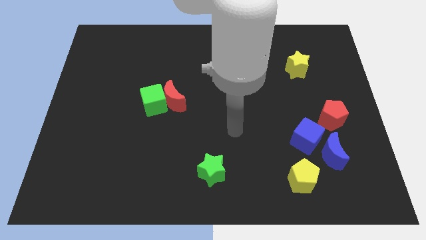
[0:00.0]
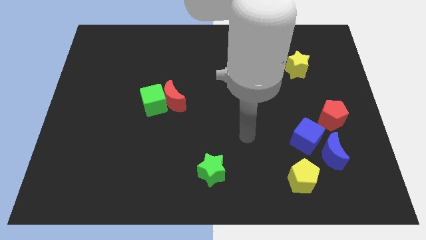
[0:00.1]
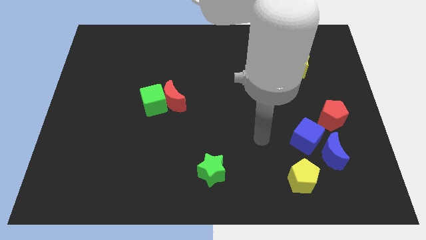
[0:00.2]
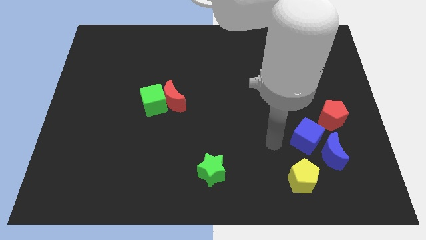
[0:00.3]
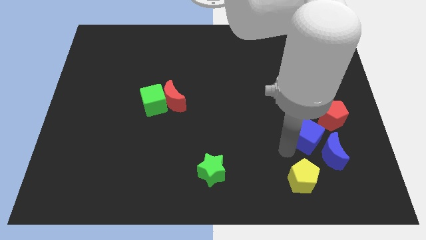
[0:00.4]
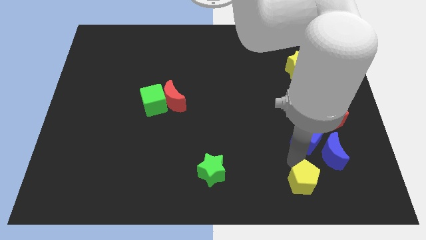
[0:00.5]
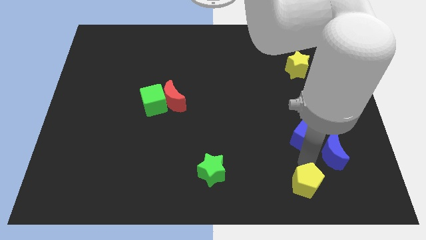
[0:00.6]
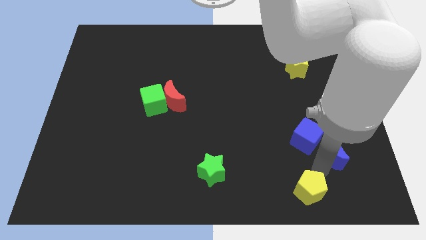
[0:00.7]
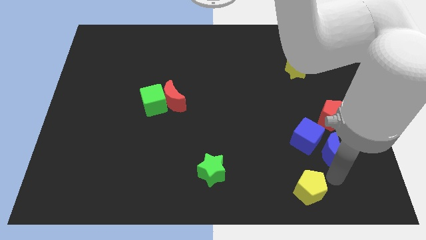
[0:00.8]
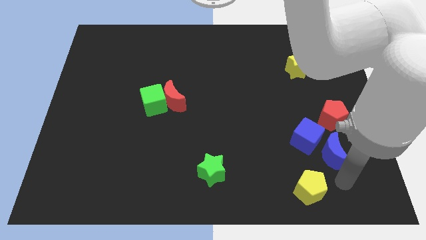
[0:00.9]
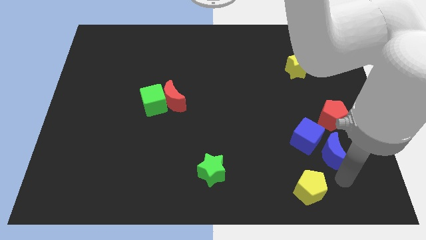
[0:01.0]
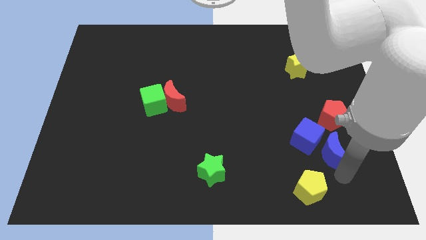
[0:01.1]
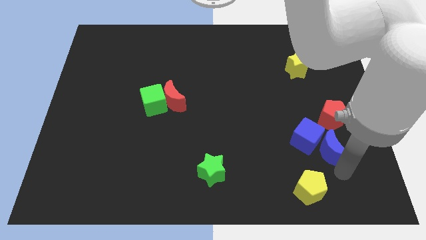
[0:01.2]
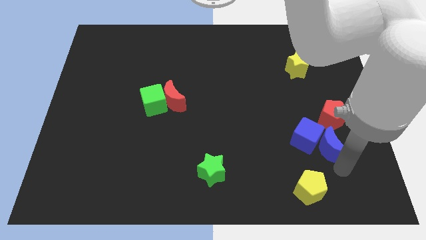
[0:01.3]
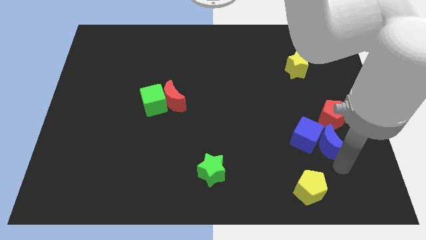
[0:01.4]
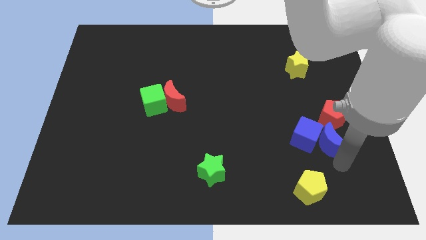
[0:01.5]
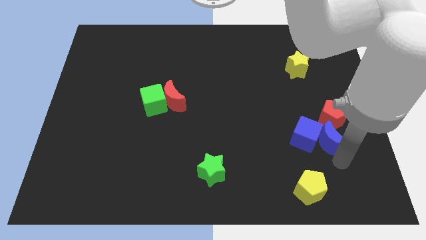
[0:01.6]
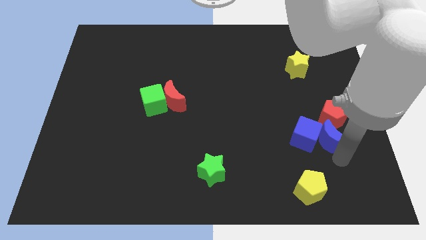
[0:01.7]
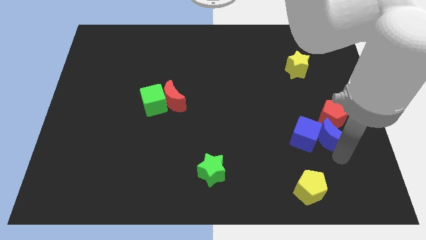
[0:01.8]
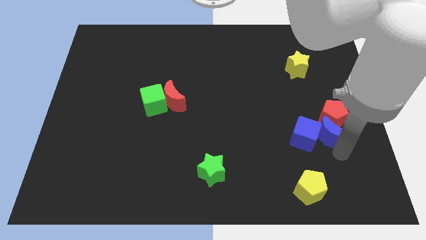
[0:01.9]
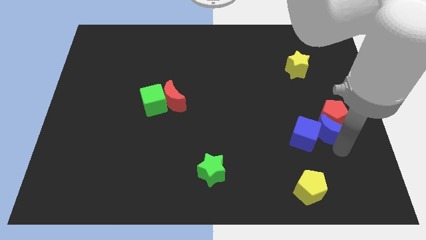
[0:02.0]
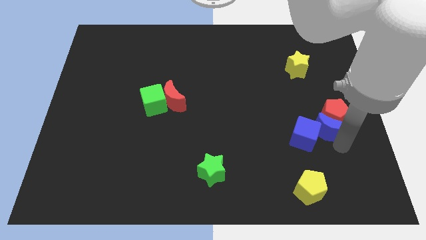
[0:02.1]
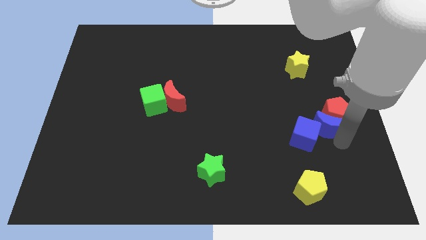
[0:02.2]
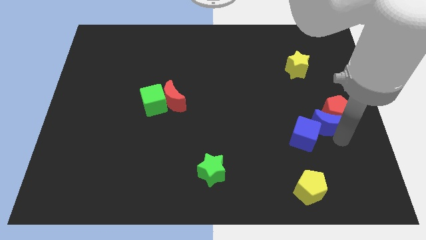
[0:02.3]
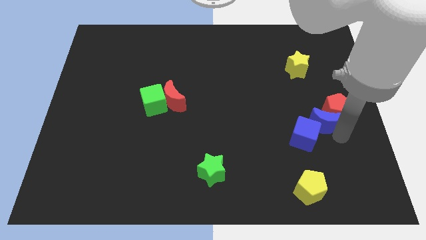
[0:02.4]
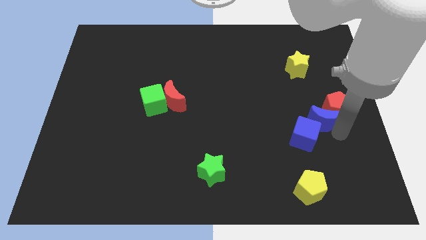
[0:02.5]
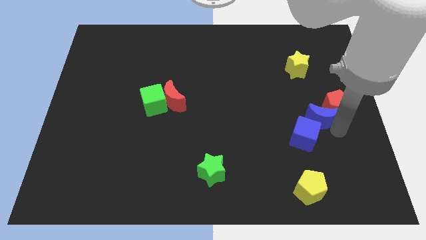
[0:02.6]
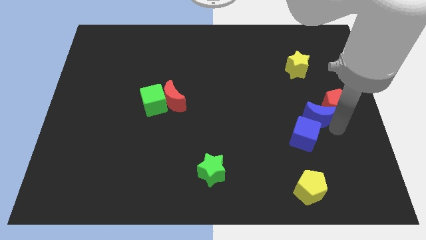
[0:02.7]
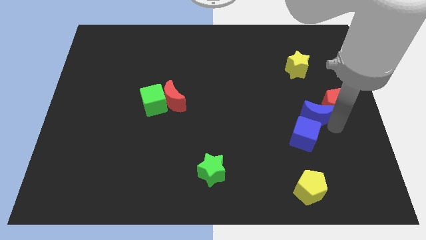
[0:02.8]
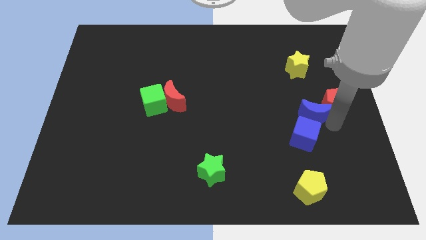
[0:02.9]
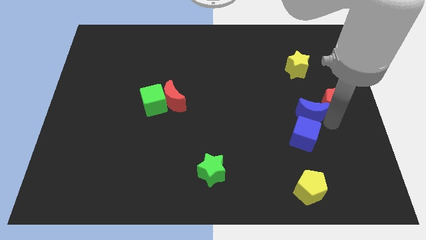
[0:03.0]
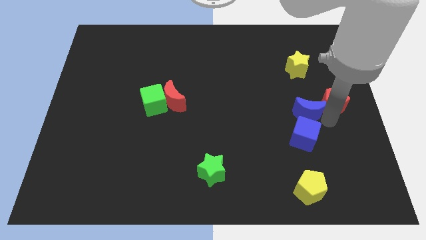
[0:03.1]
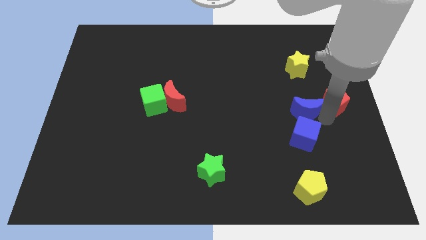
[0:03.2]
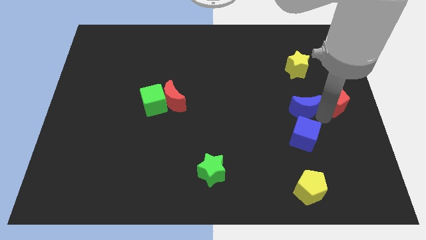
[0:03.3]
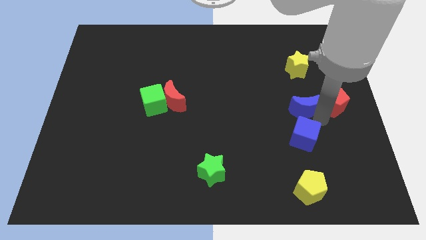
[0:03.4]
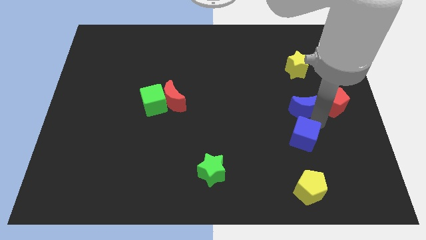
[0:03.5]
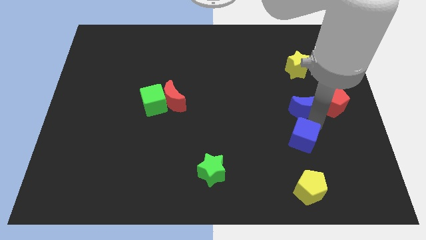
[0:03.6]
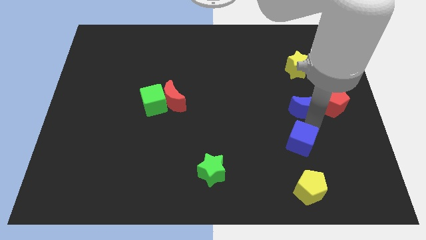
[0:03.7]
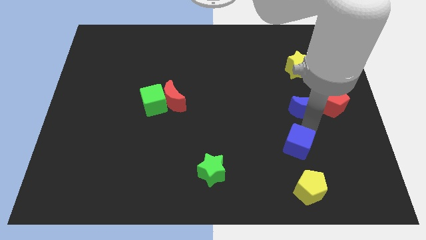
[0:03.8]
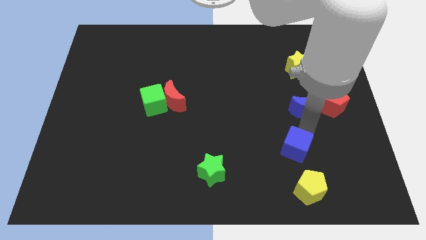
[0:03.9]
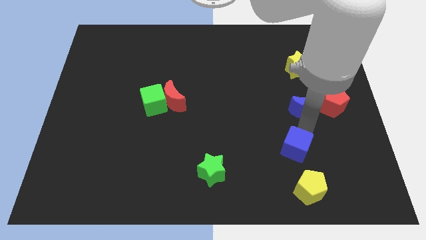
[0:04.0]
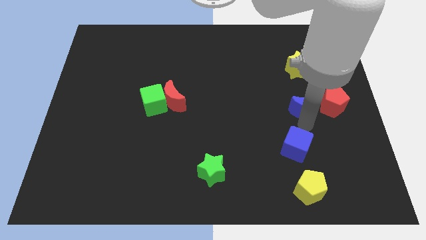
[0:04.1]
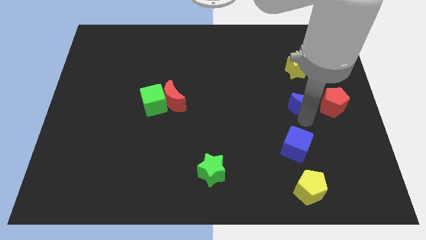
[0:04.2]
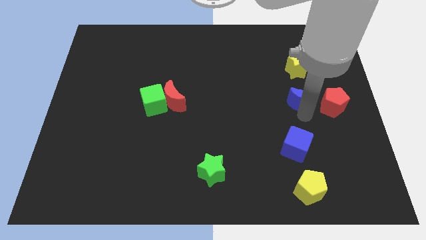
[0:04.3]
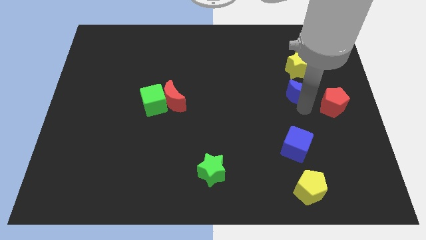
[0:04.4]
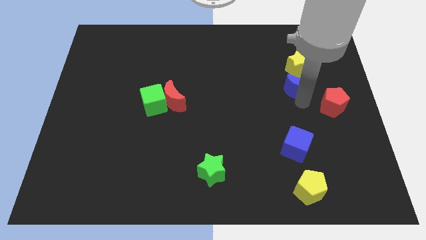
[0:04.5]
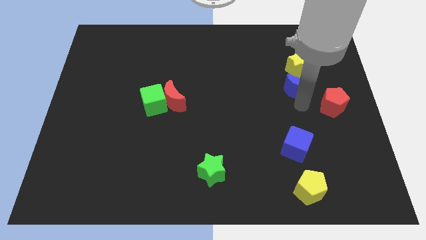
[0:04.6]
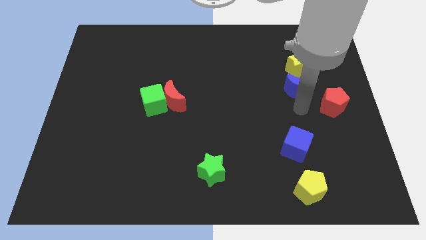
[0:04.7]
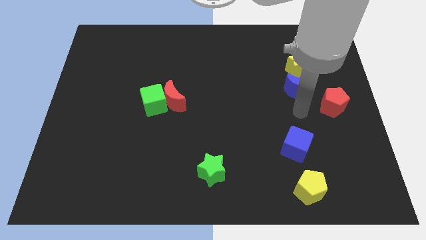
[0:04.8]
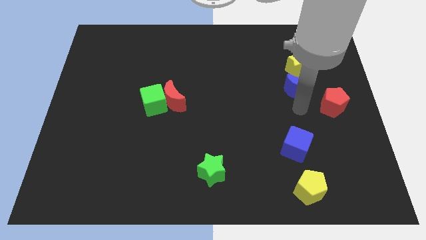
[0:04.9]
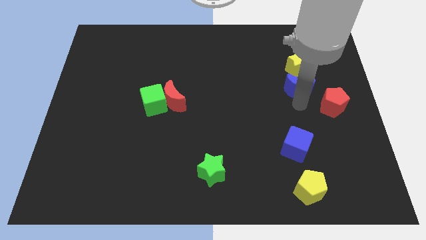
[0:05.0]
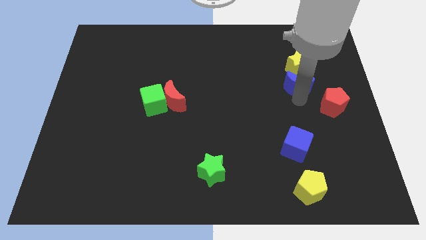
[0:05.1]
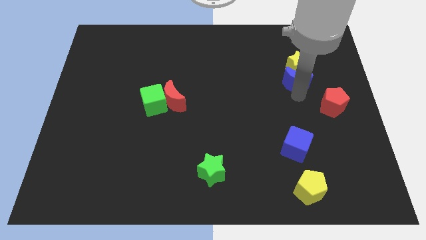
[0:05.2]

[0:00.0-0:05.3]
slide the blue moon towards the yellow star

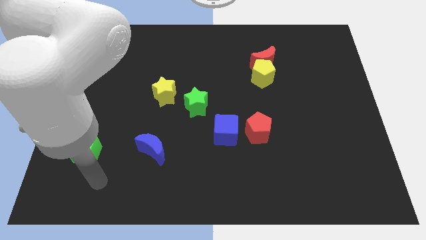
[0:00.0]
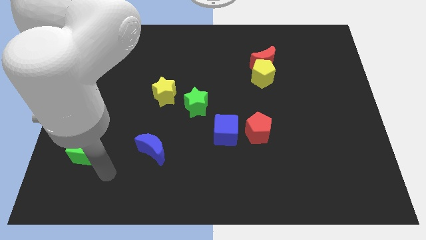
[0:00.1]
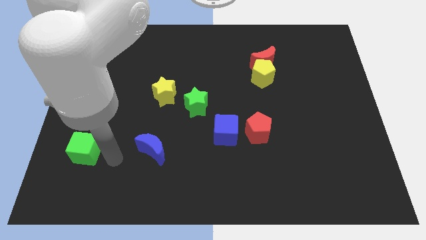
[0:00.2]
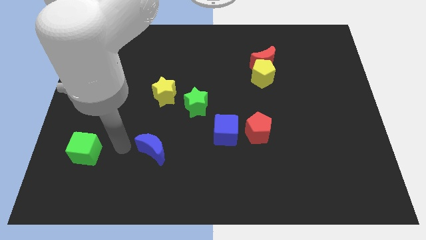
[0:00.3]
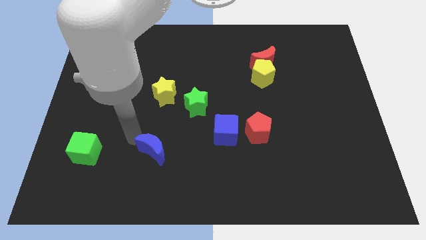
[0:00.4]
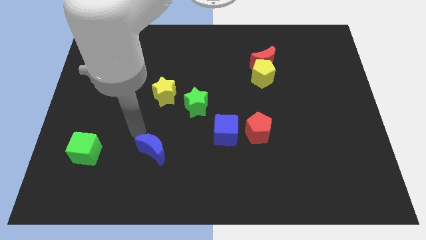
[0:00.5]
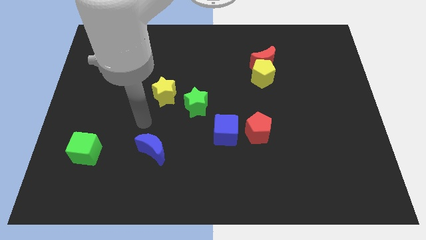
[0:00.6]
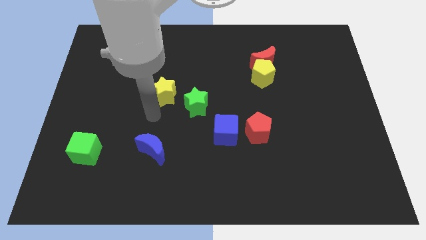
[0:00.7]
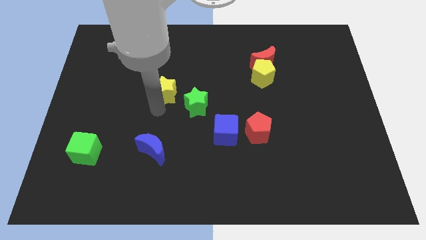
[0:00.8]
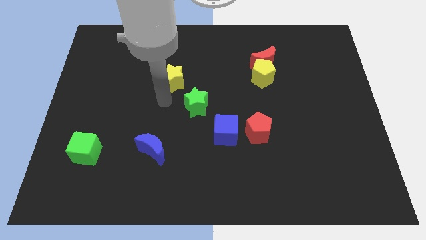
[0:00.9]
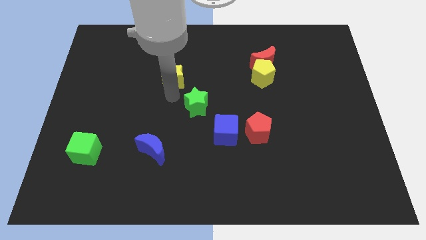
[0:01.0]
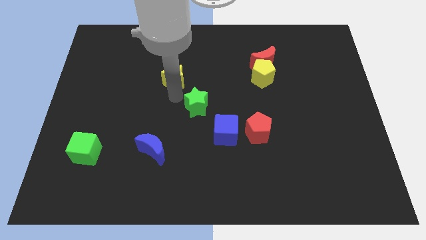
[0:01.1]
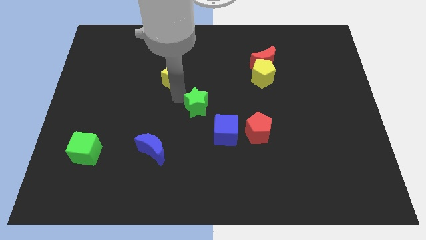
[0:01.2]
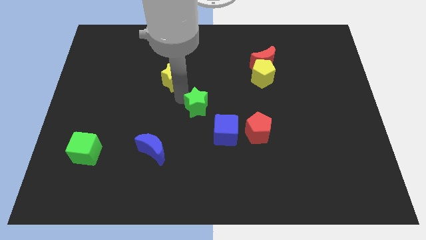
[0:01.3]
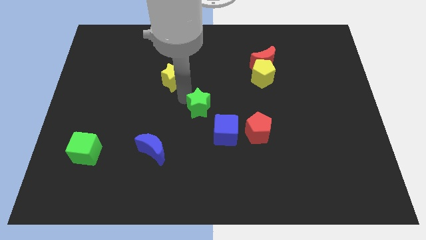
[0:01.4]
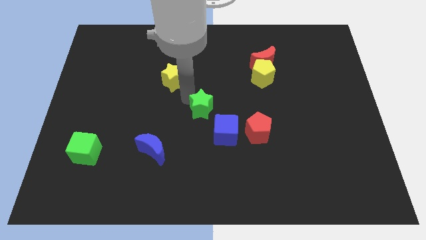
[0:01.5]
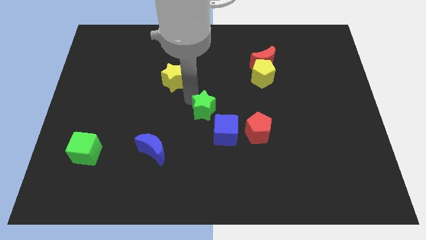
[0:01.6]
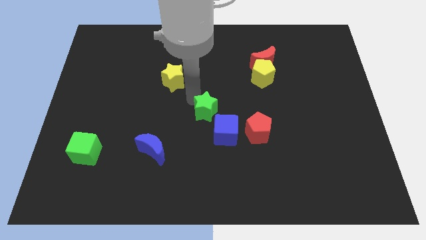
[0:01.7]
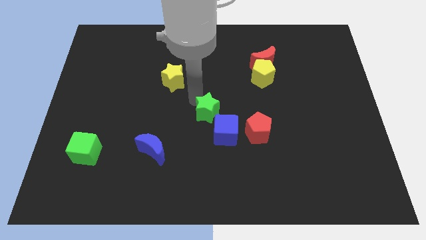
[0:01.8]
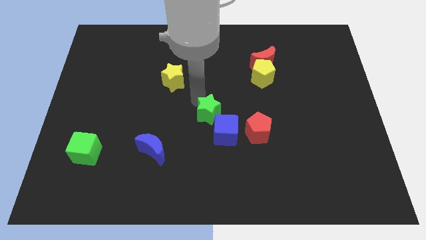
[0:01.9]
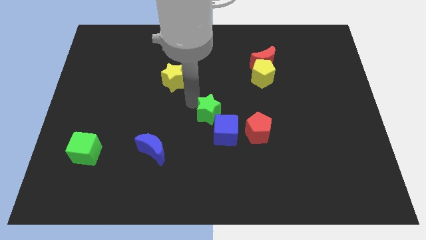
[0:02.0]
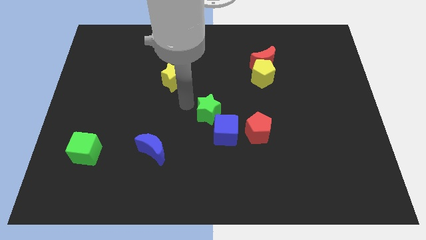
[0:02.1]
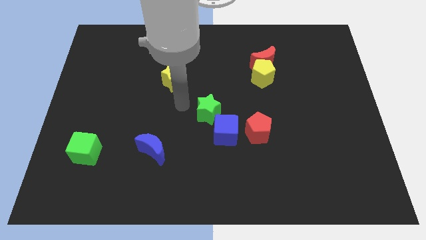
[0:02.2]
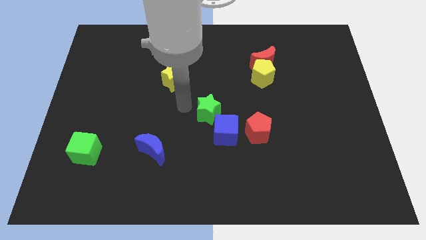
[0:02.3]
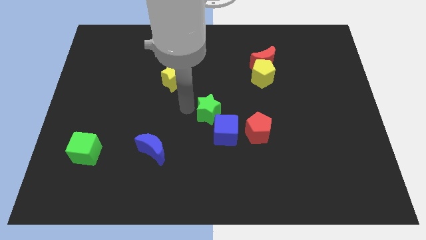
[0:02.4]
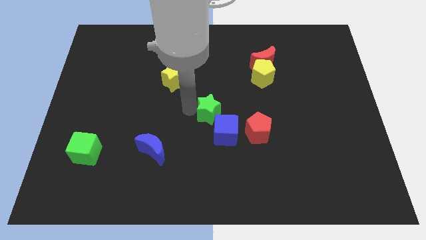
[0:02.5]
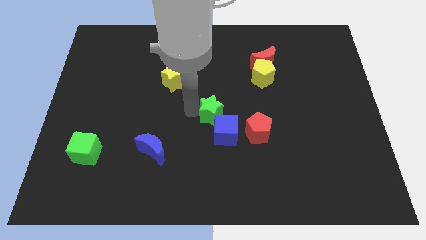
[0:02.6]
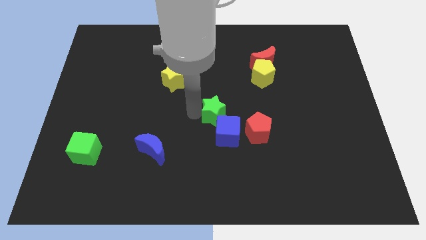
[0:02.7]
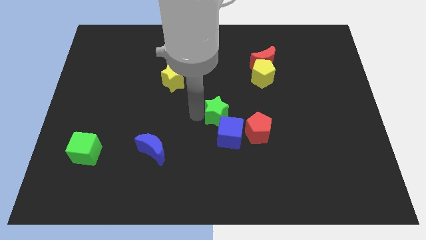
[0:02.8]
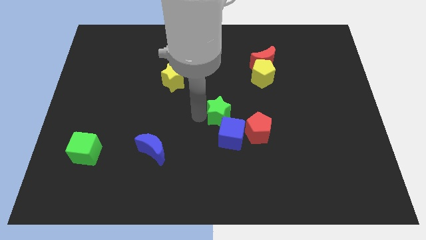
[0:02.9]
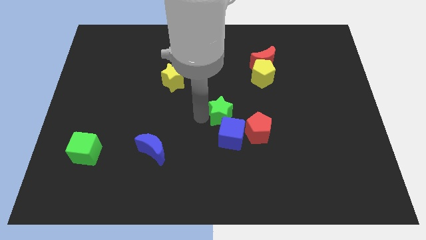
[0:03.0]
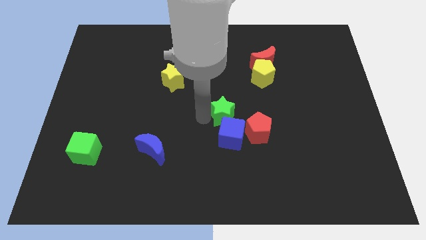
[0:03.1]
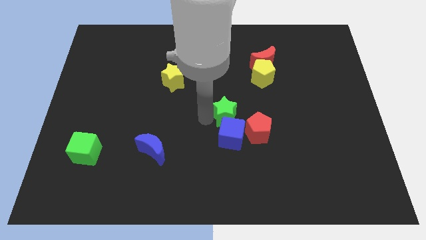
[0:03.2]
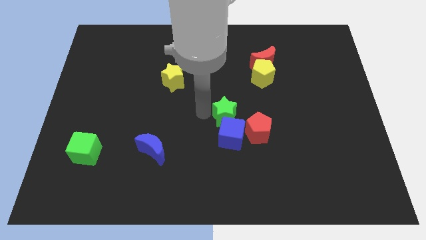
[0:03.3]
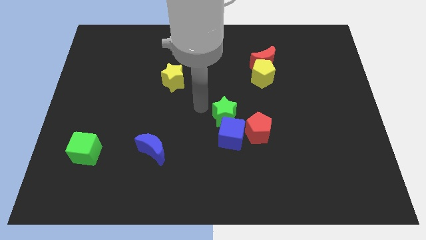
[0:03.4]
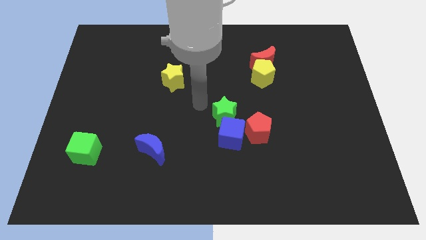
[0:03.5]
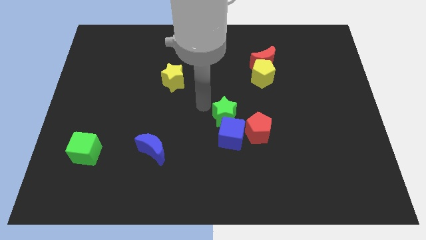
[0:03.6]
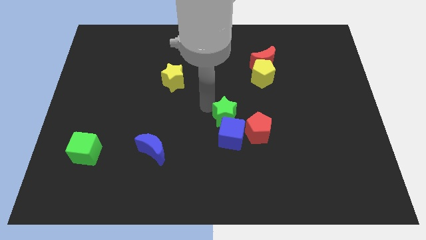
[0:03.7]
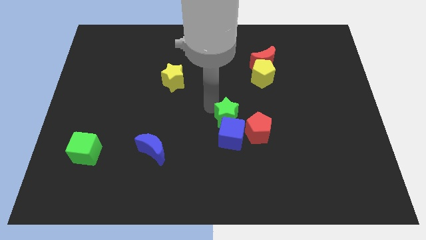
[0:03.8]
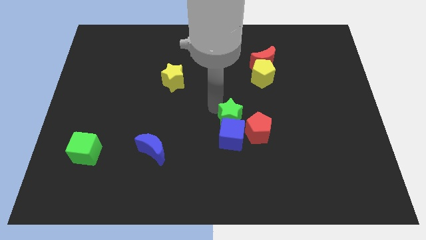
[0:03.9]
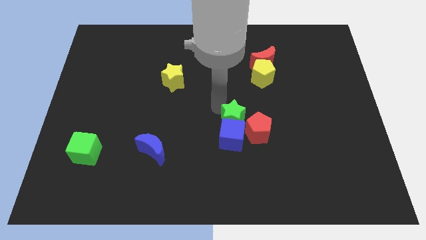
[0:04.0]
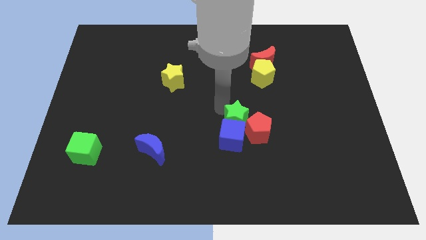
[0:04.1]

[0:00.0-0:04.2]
move the green star to the red pentagon
